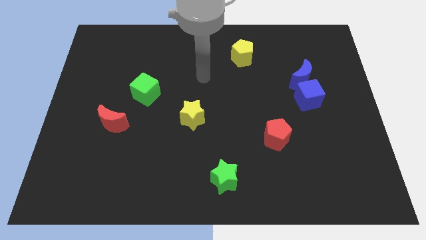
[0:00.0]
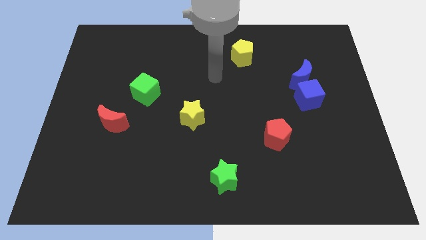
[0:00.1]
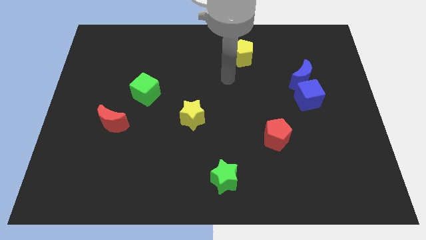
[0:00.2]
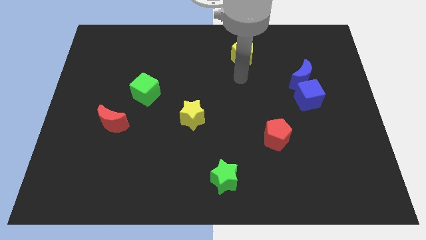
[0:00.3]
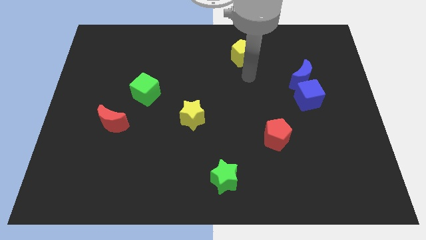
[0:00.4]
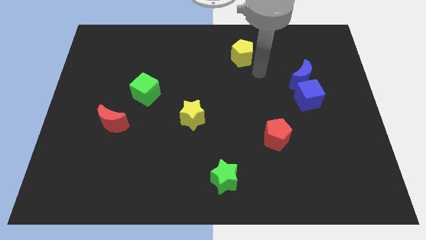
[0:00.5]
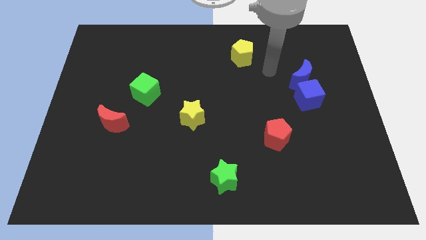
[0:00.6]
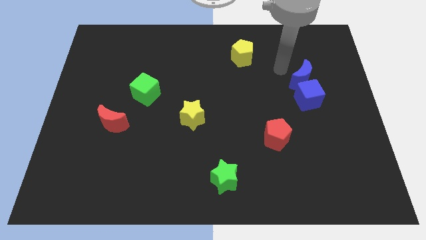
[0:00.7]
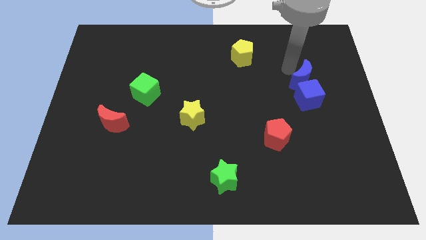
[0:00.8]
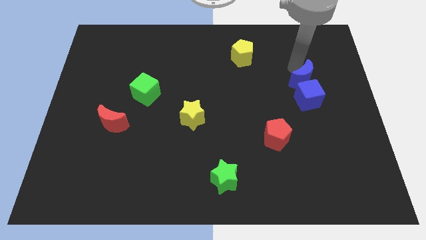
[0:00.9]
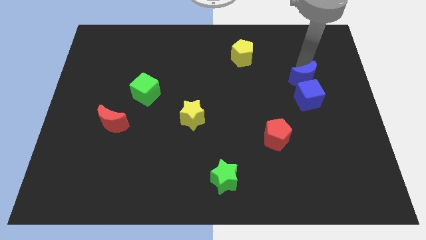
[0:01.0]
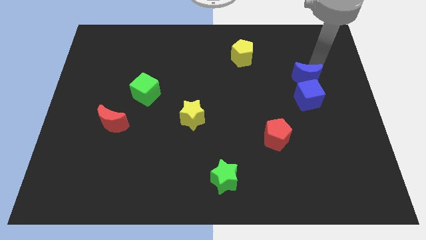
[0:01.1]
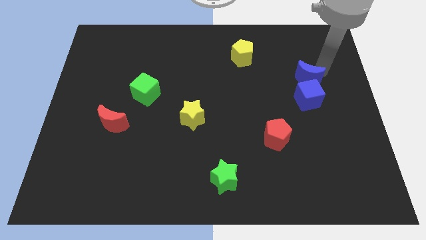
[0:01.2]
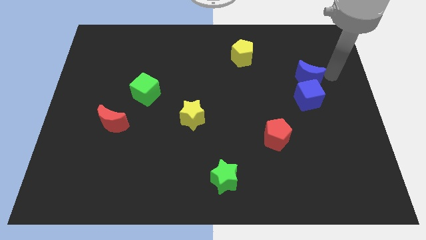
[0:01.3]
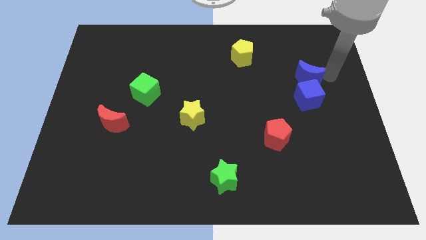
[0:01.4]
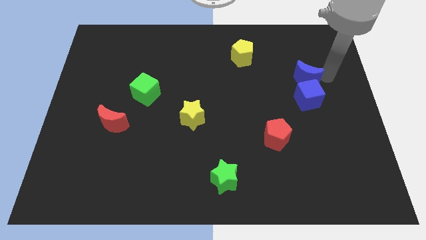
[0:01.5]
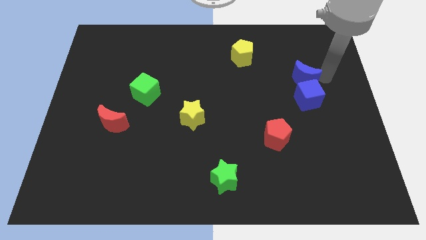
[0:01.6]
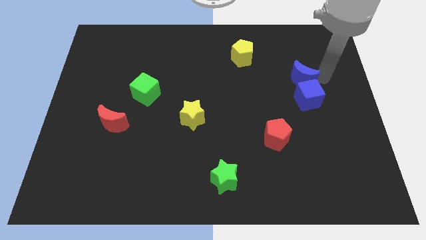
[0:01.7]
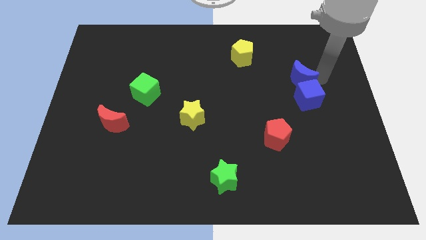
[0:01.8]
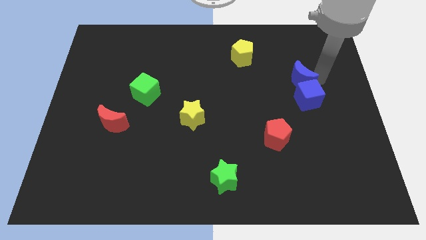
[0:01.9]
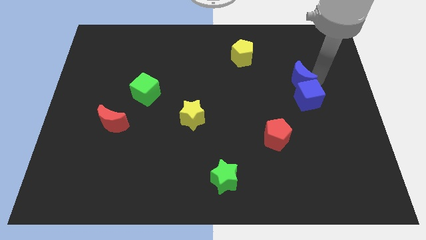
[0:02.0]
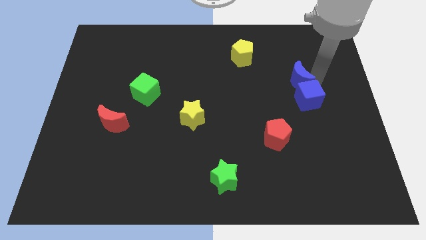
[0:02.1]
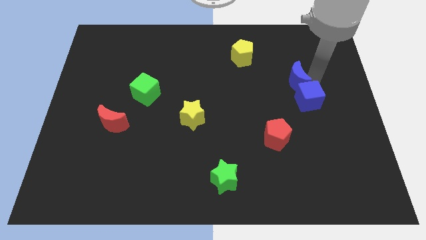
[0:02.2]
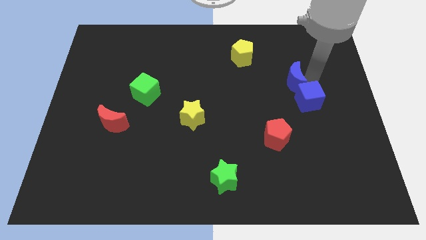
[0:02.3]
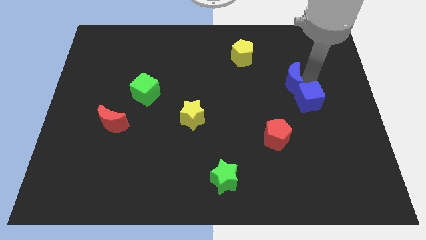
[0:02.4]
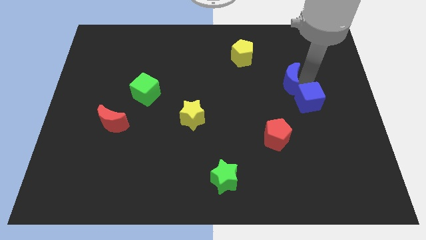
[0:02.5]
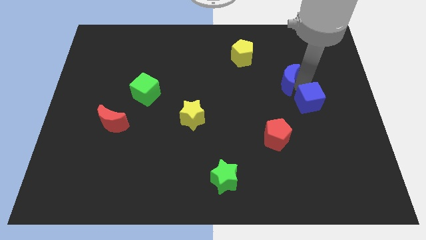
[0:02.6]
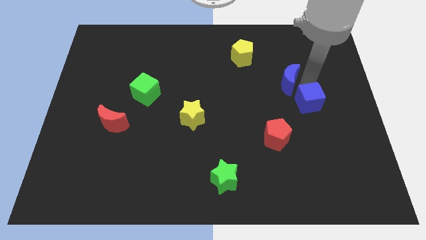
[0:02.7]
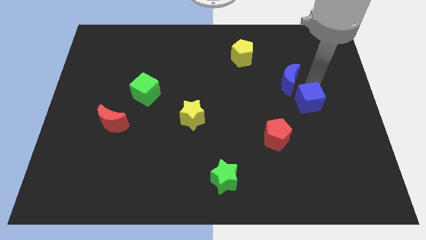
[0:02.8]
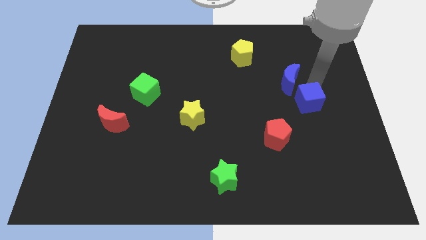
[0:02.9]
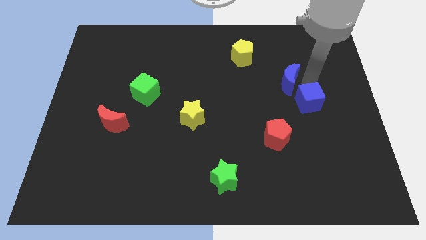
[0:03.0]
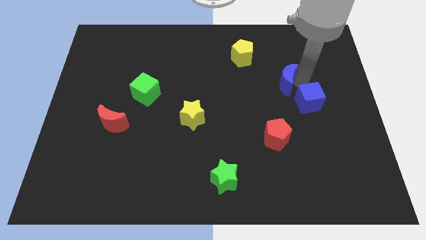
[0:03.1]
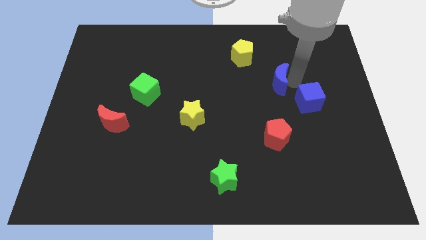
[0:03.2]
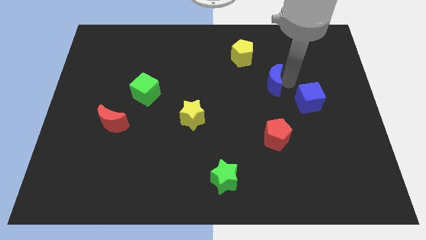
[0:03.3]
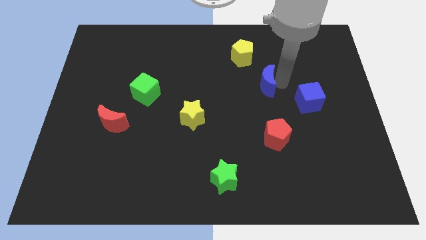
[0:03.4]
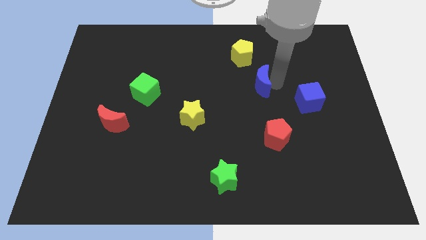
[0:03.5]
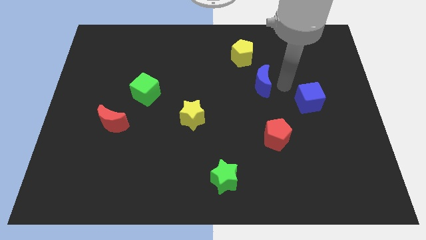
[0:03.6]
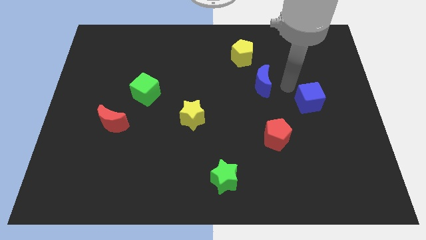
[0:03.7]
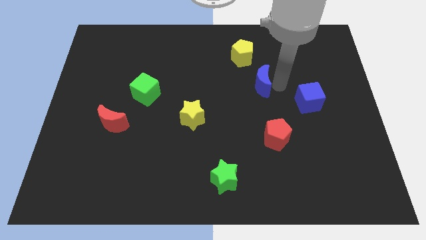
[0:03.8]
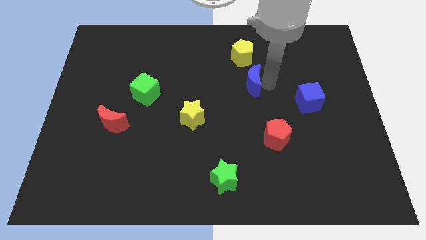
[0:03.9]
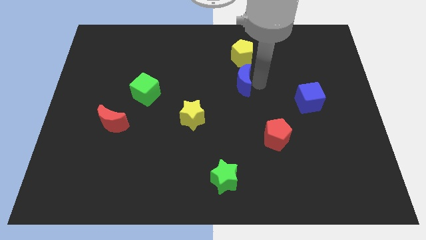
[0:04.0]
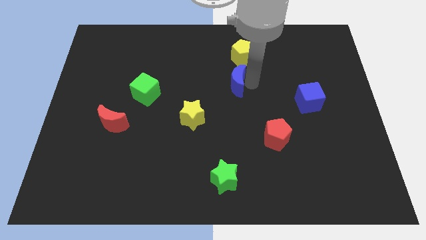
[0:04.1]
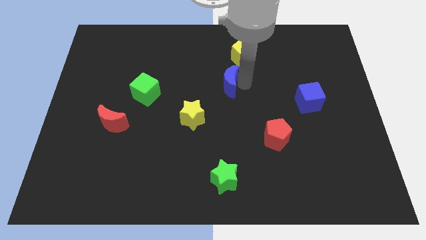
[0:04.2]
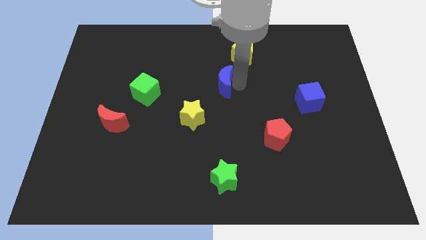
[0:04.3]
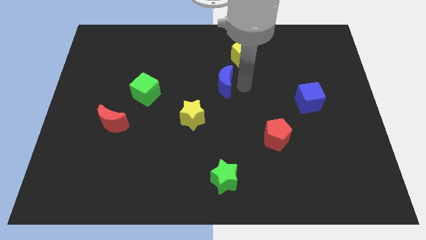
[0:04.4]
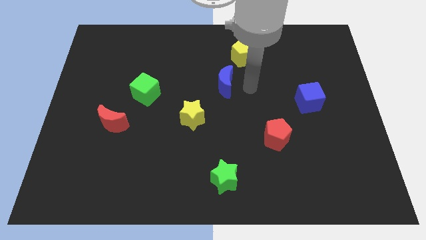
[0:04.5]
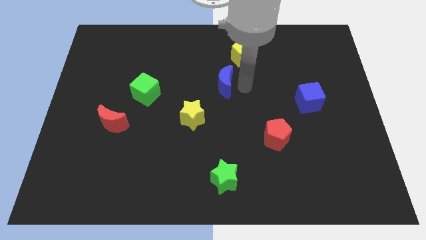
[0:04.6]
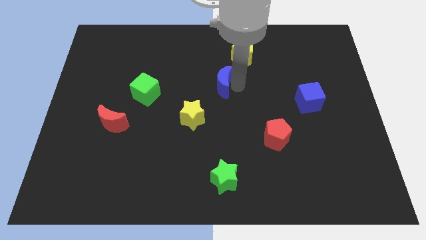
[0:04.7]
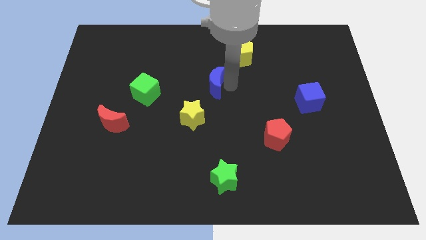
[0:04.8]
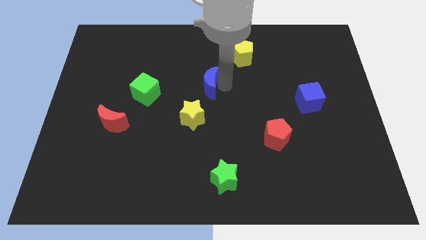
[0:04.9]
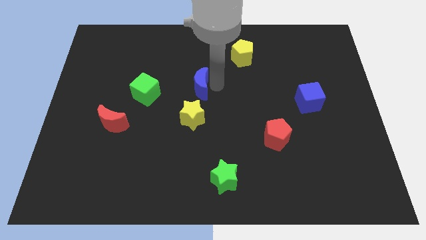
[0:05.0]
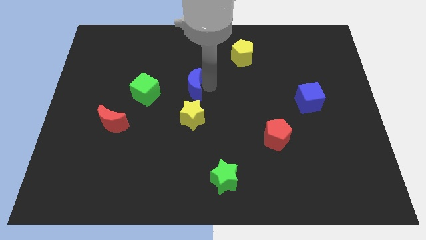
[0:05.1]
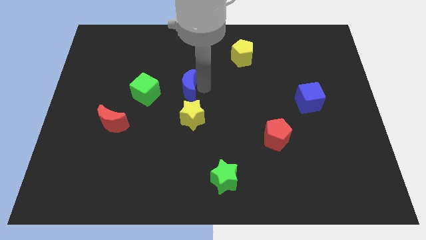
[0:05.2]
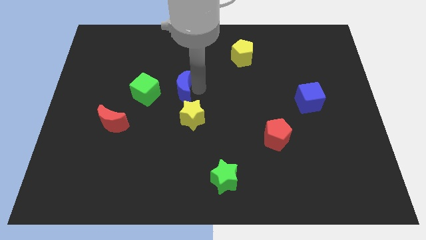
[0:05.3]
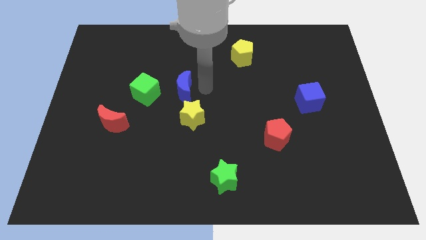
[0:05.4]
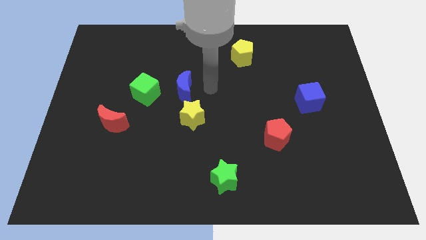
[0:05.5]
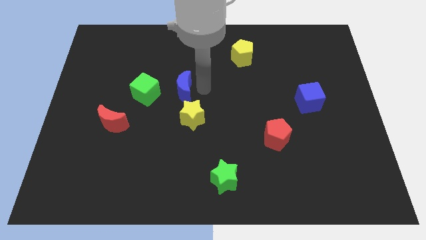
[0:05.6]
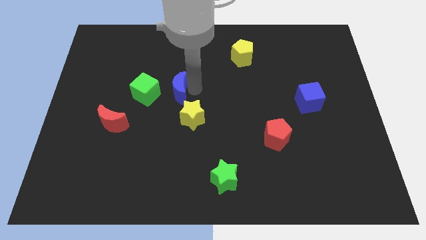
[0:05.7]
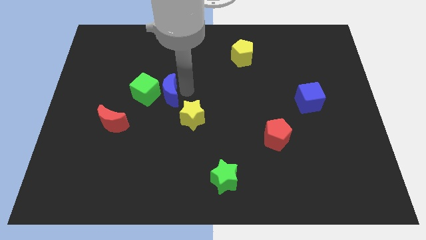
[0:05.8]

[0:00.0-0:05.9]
slide the blue moon next to the green cube
